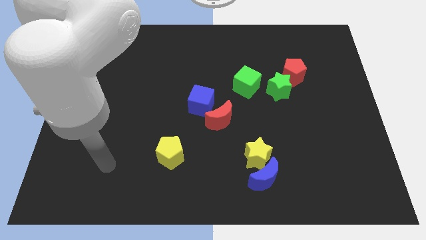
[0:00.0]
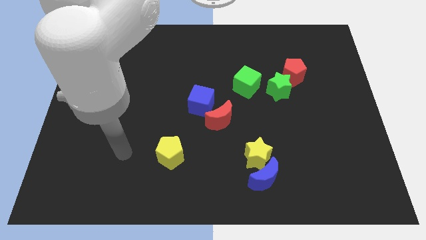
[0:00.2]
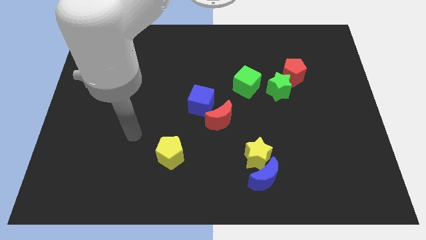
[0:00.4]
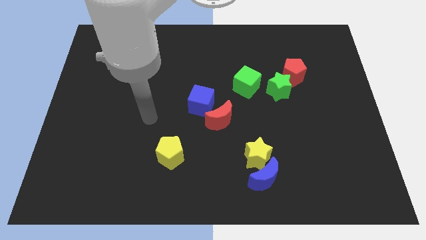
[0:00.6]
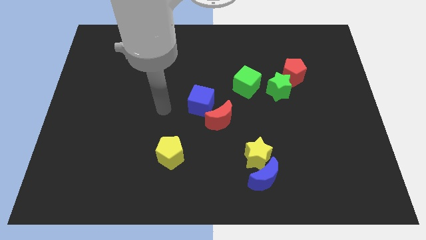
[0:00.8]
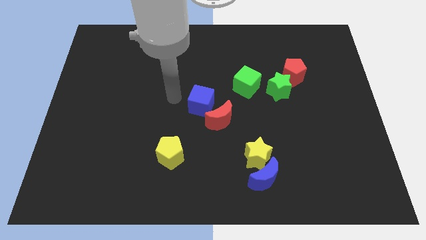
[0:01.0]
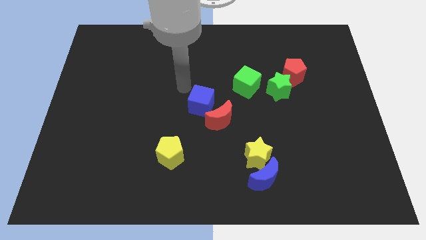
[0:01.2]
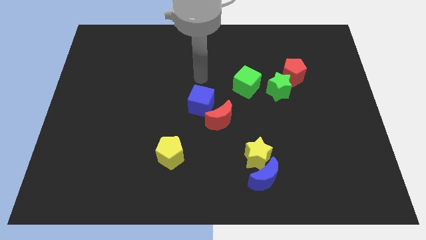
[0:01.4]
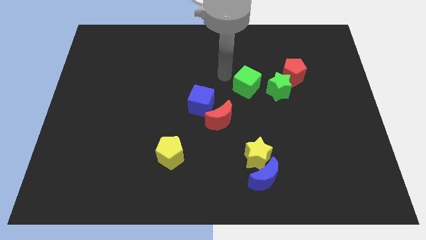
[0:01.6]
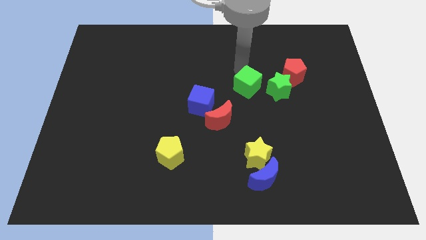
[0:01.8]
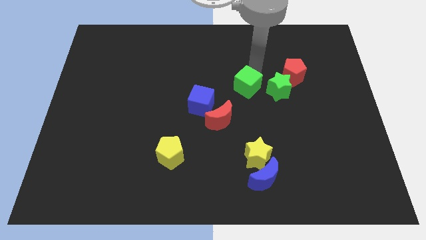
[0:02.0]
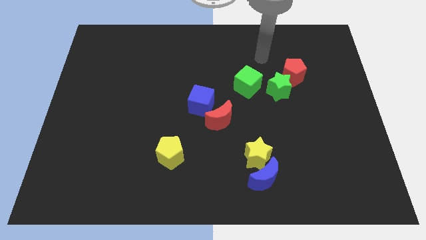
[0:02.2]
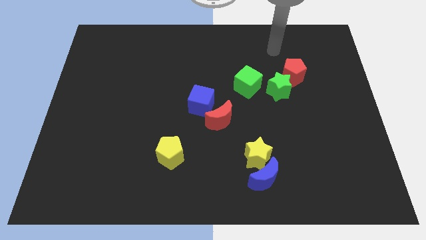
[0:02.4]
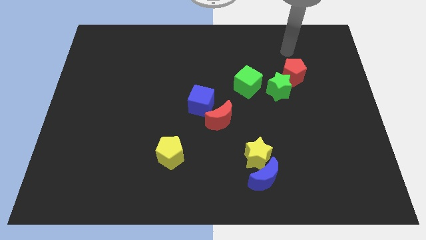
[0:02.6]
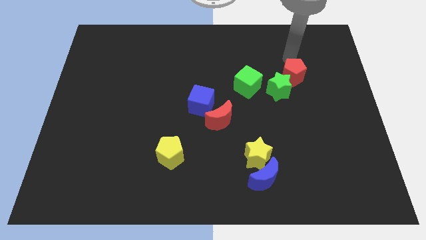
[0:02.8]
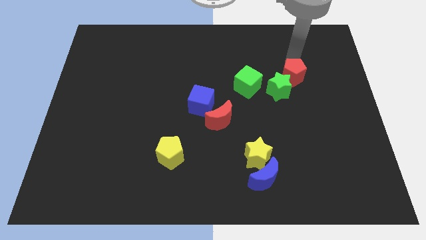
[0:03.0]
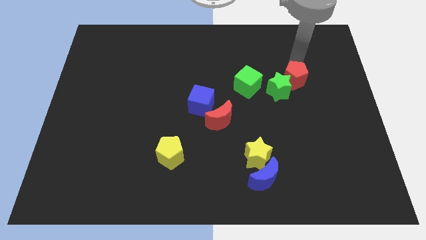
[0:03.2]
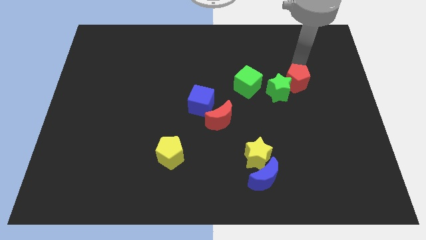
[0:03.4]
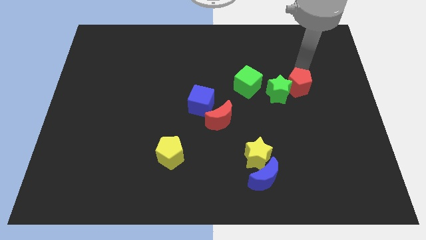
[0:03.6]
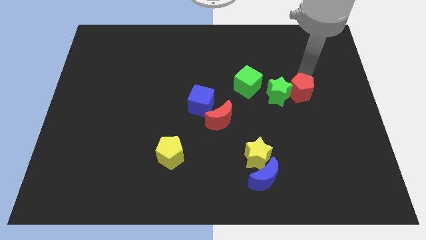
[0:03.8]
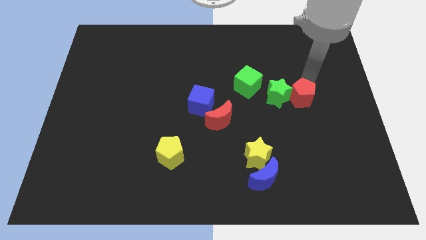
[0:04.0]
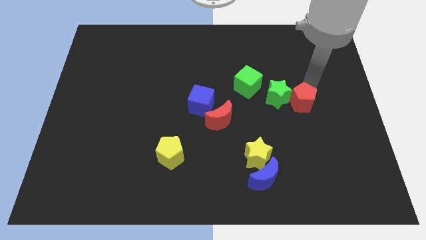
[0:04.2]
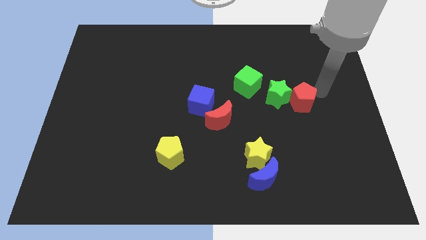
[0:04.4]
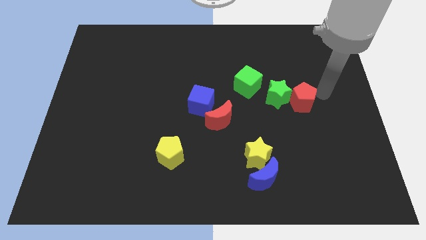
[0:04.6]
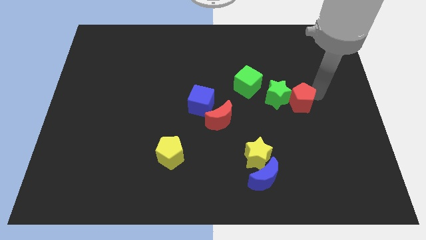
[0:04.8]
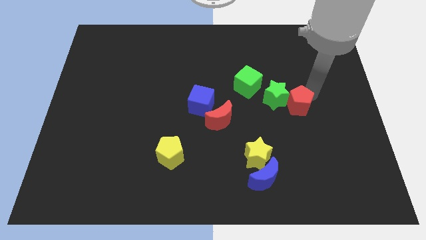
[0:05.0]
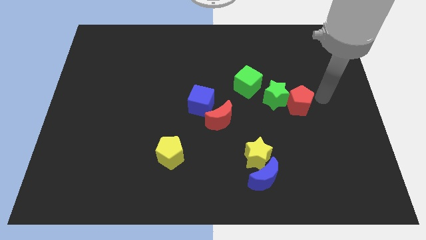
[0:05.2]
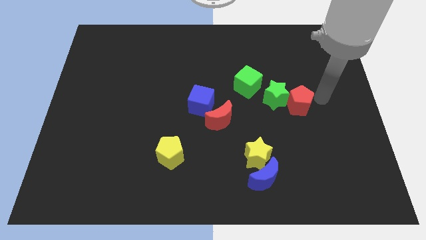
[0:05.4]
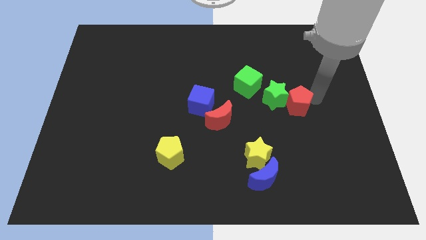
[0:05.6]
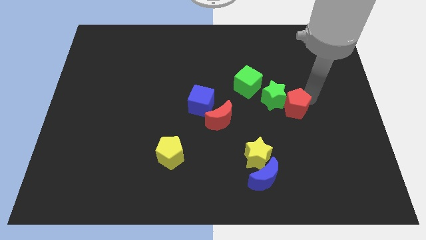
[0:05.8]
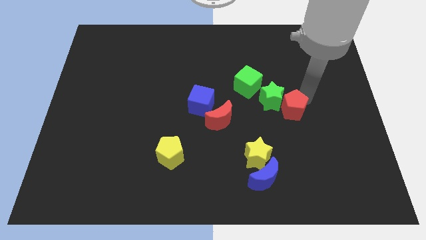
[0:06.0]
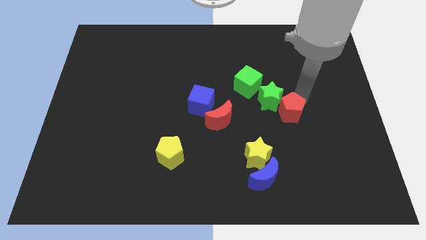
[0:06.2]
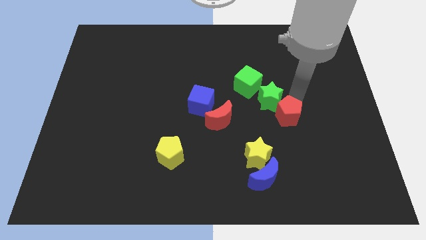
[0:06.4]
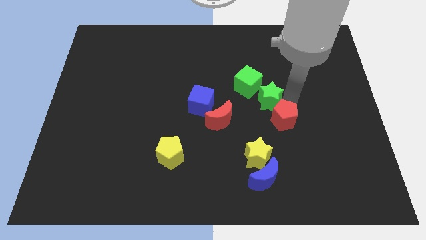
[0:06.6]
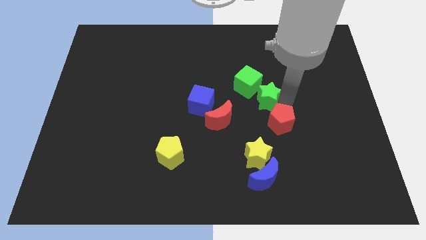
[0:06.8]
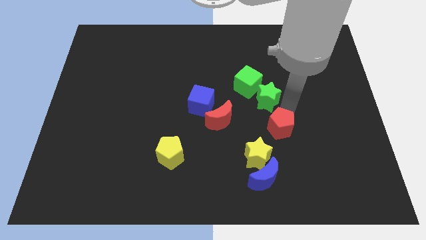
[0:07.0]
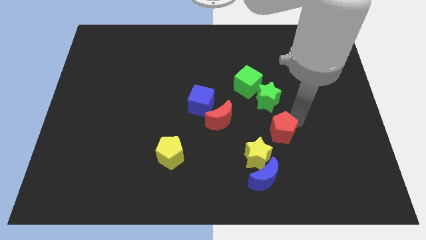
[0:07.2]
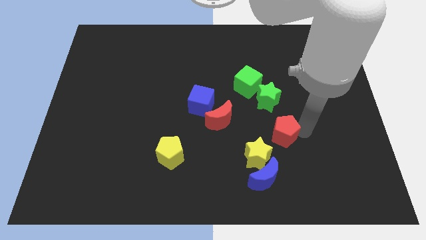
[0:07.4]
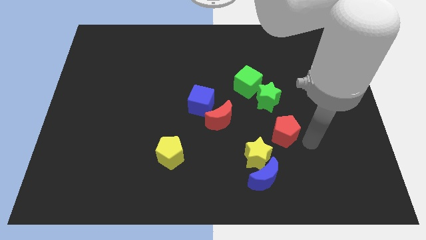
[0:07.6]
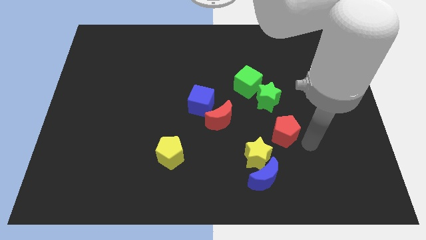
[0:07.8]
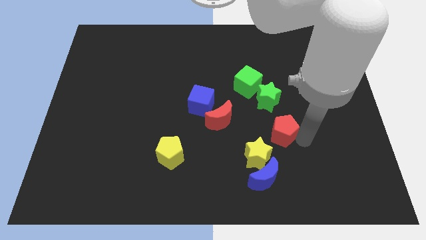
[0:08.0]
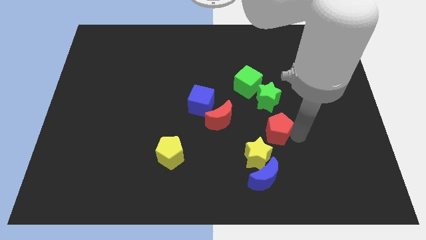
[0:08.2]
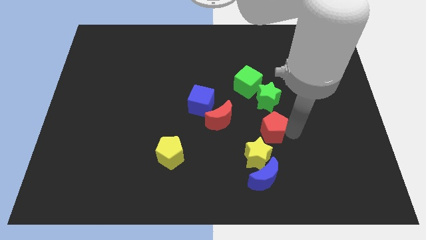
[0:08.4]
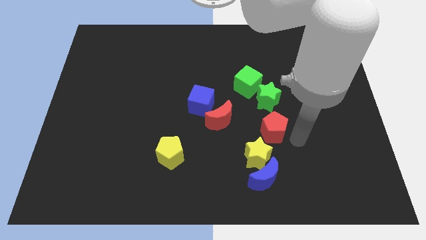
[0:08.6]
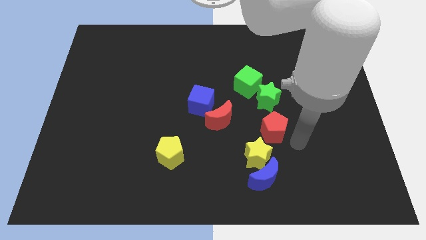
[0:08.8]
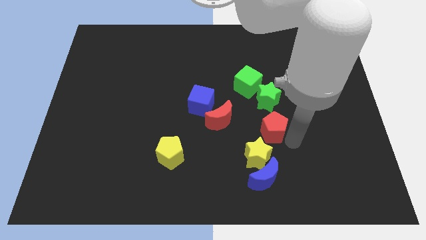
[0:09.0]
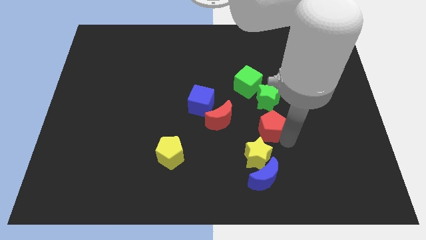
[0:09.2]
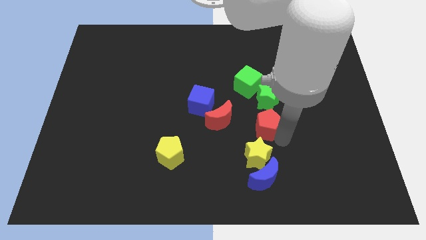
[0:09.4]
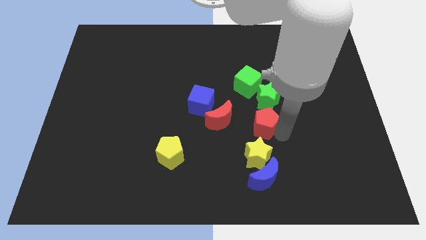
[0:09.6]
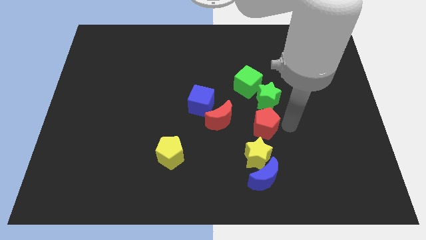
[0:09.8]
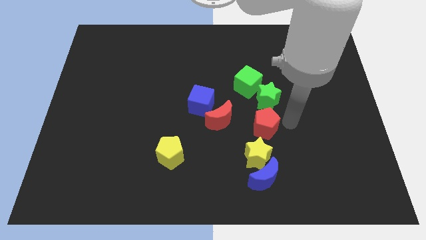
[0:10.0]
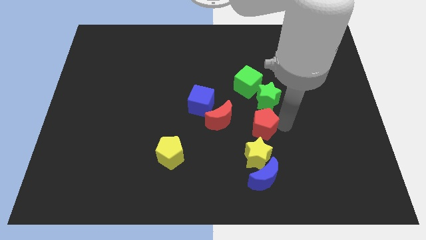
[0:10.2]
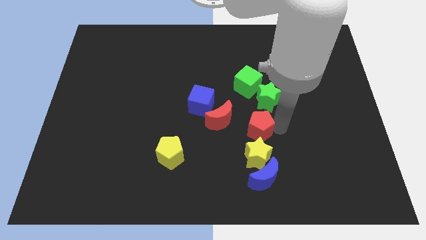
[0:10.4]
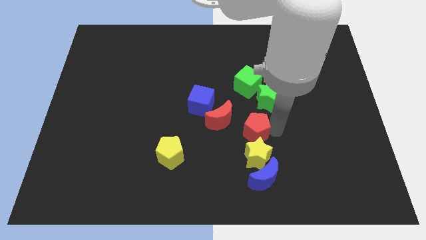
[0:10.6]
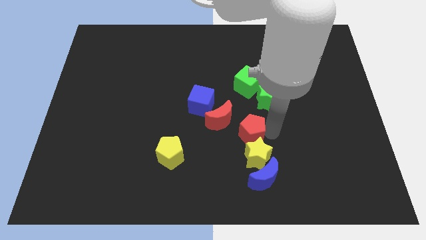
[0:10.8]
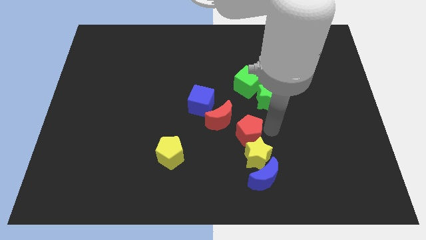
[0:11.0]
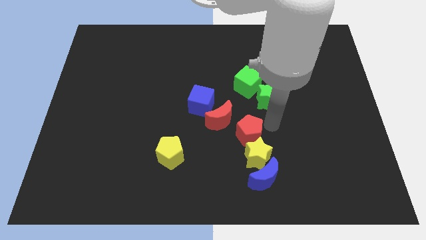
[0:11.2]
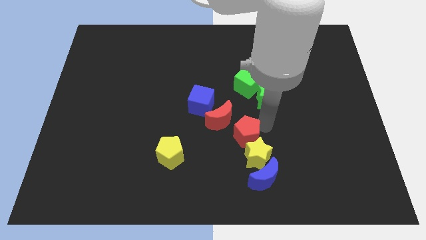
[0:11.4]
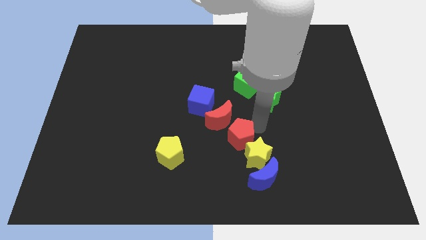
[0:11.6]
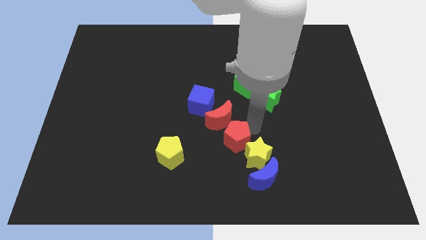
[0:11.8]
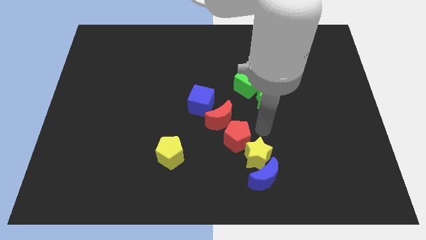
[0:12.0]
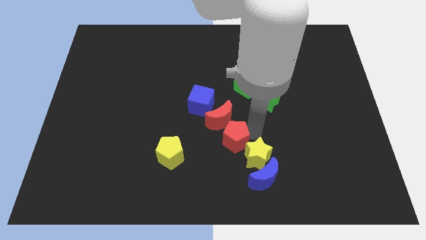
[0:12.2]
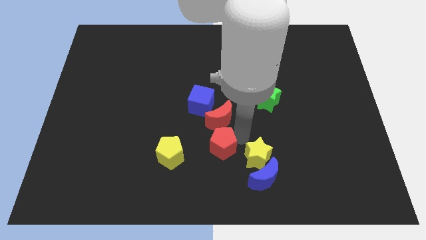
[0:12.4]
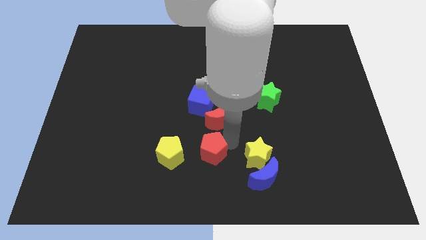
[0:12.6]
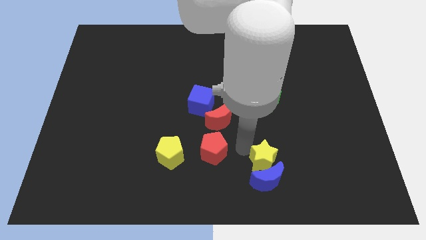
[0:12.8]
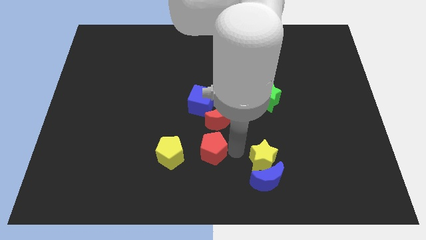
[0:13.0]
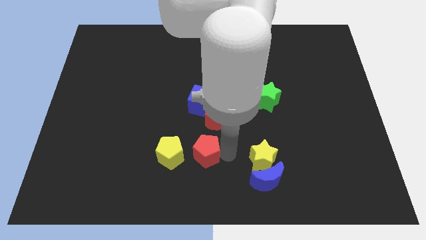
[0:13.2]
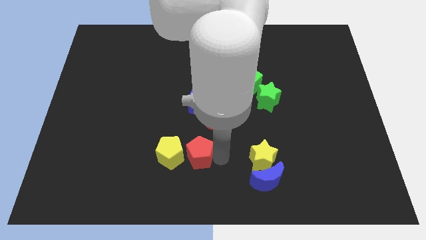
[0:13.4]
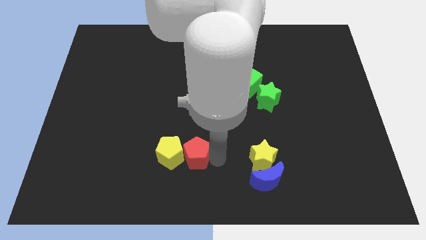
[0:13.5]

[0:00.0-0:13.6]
move the red pentagon to the yellow pentagon
